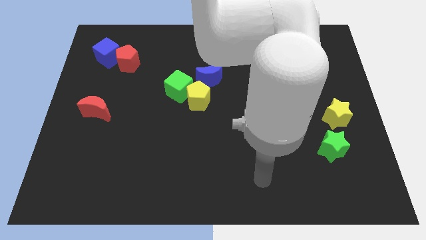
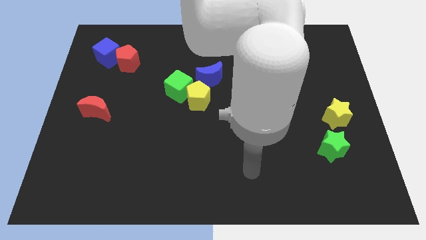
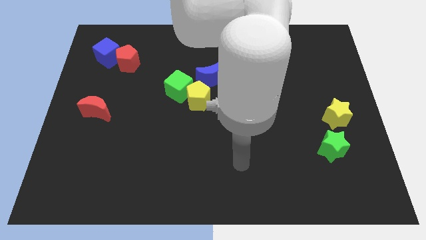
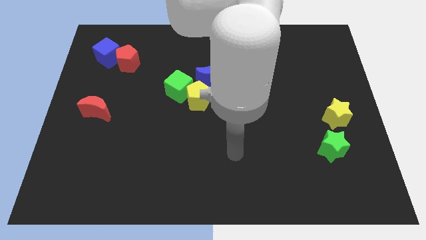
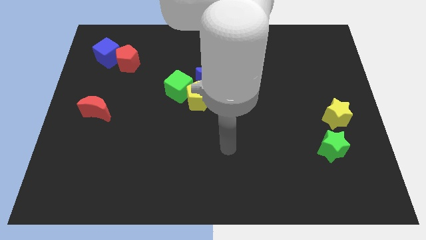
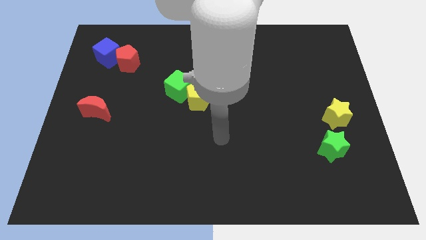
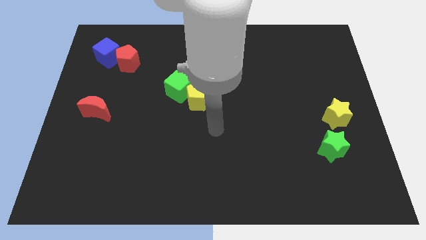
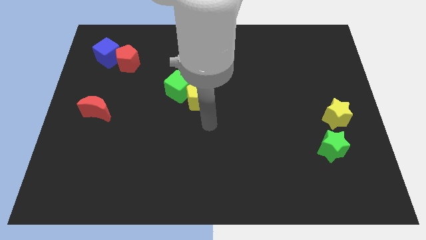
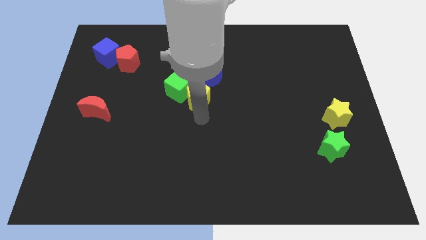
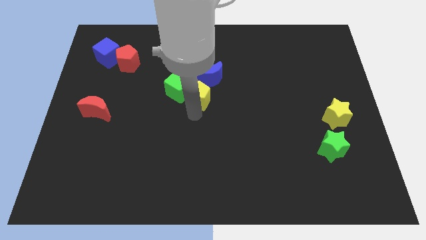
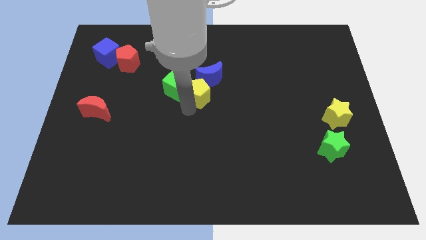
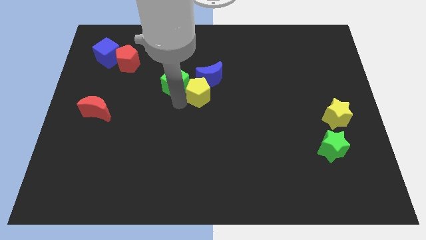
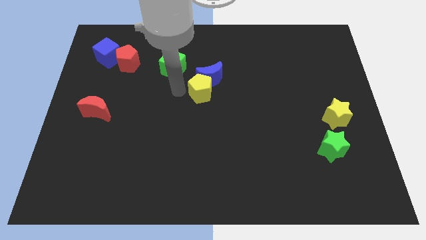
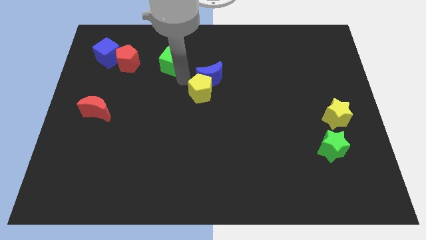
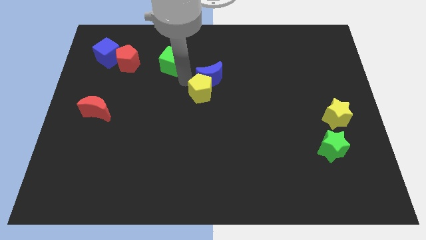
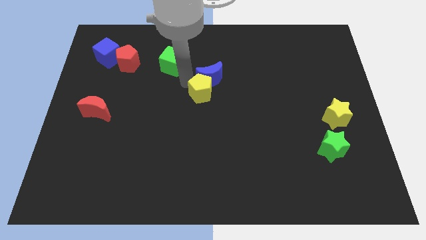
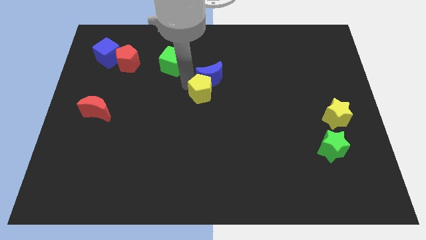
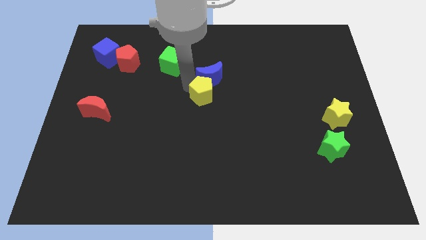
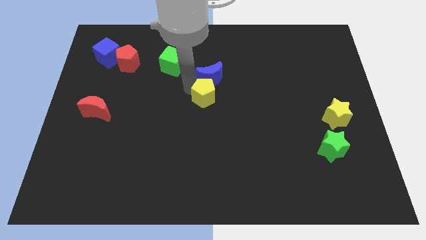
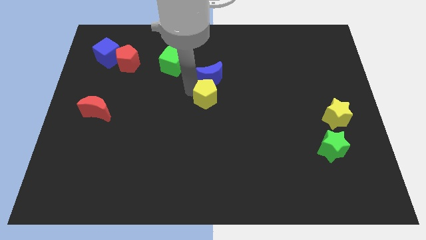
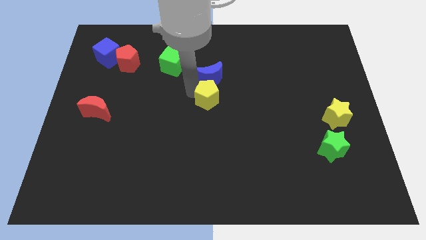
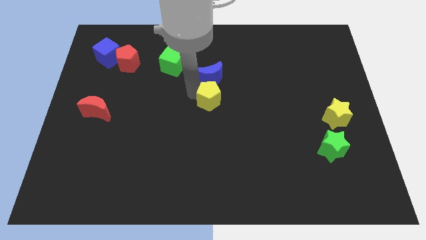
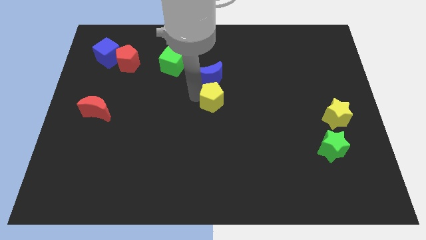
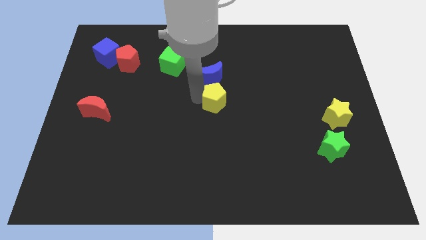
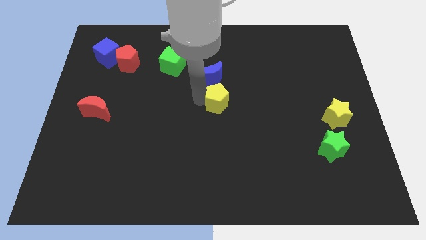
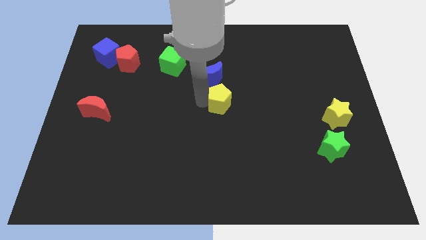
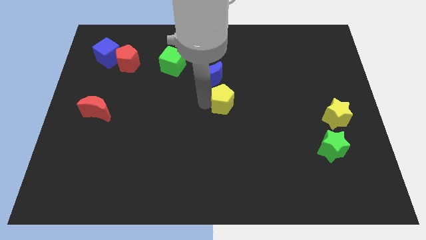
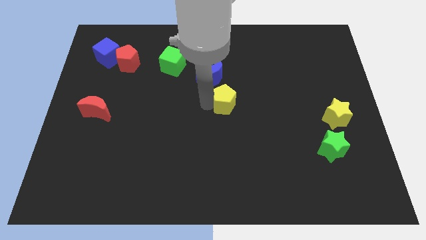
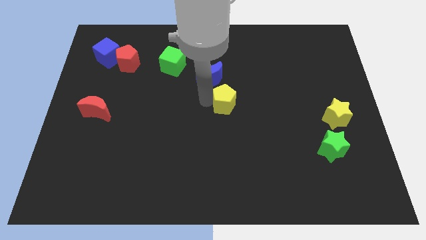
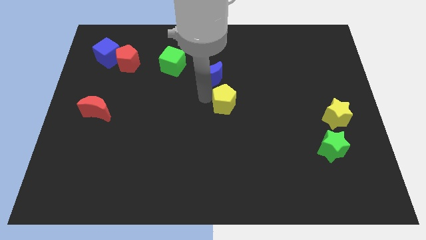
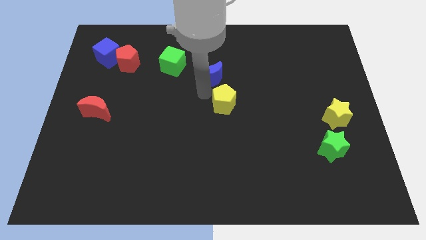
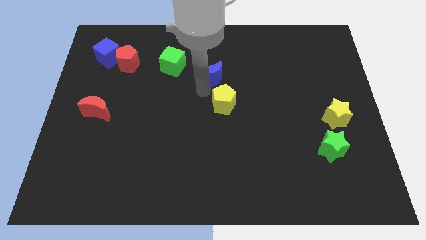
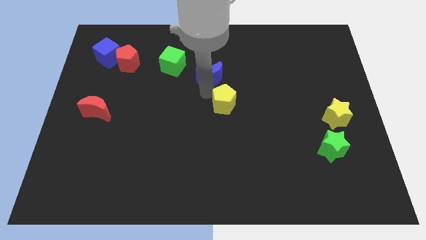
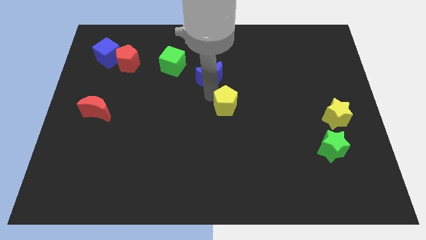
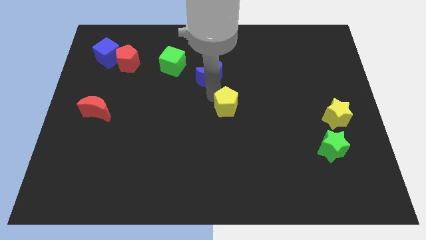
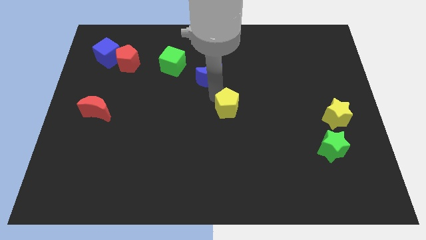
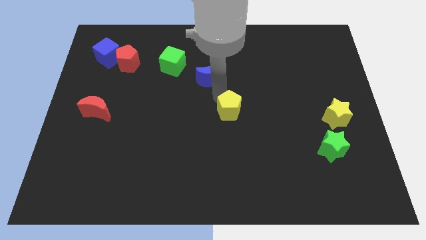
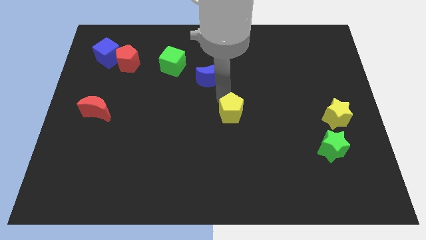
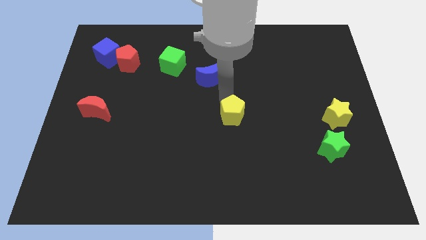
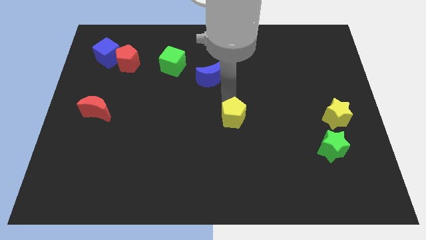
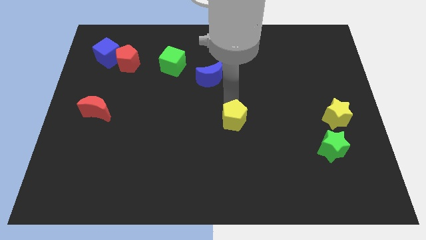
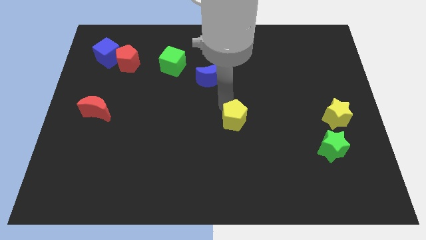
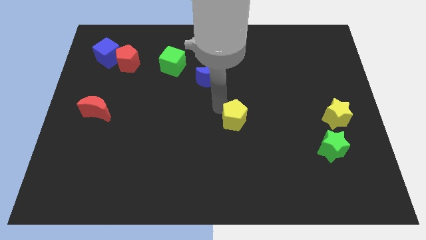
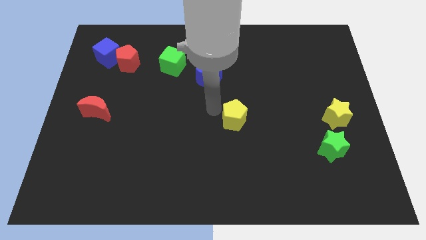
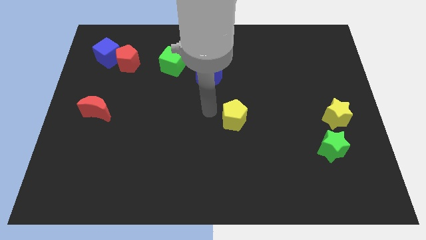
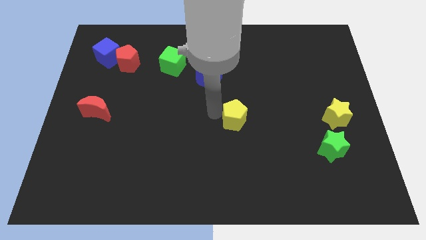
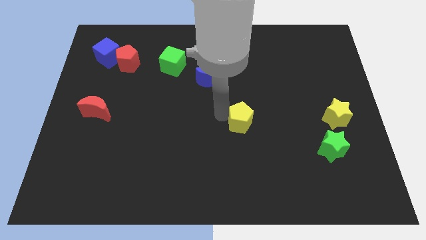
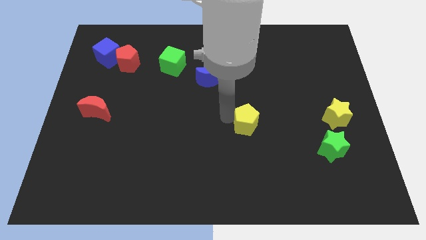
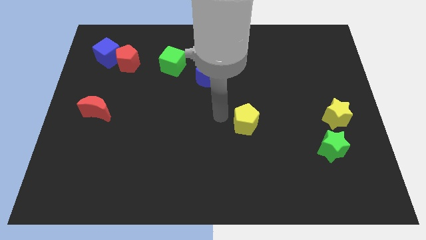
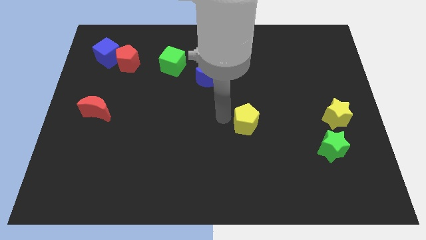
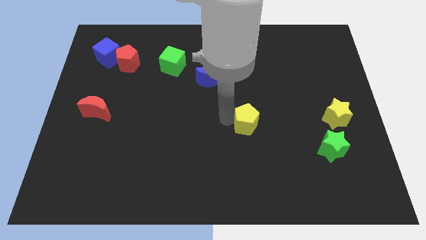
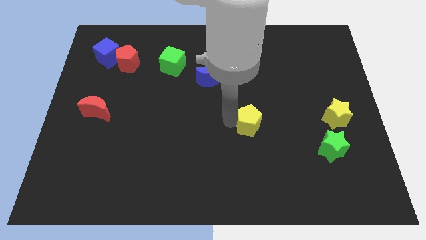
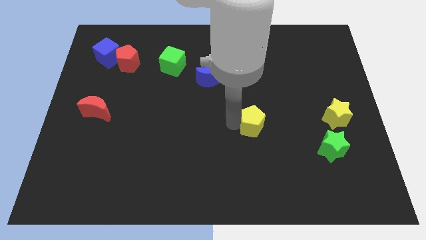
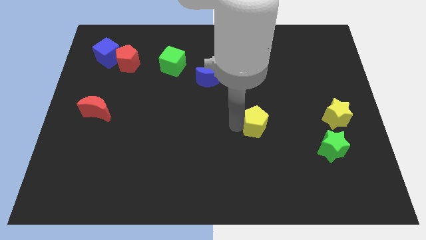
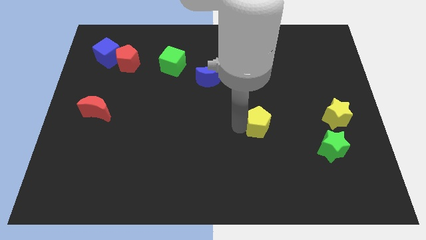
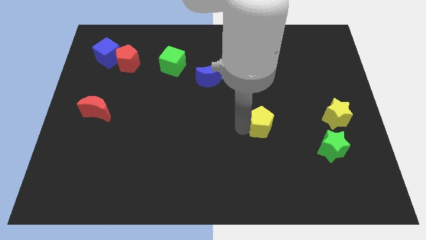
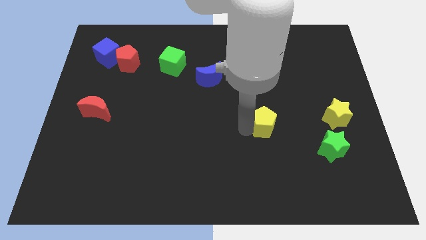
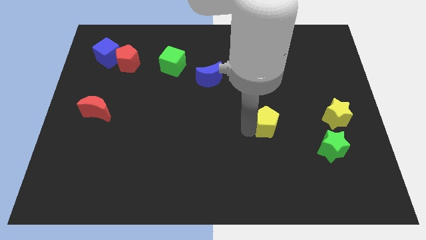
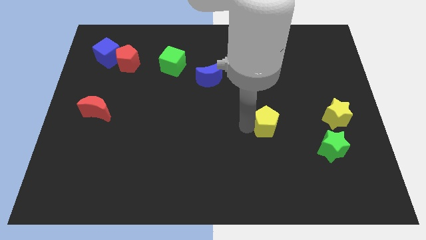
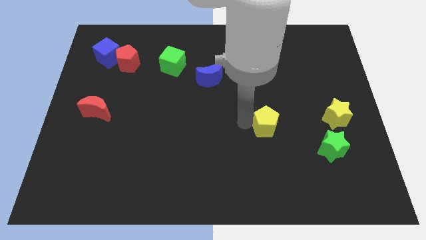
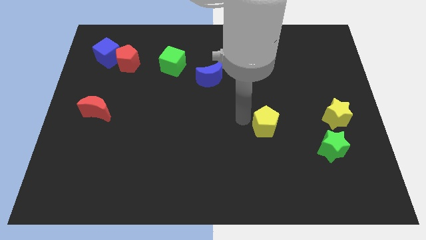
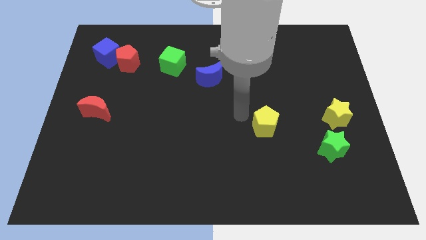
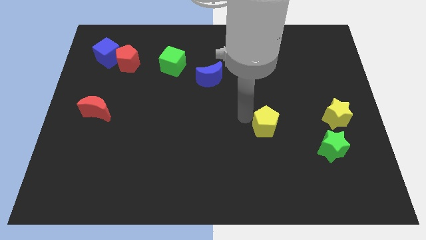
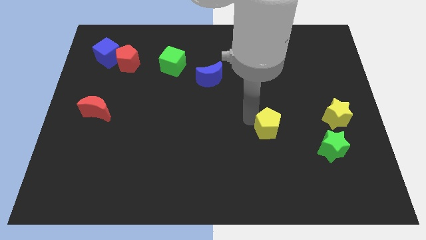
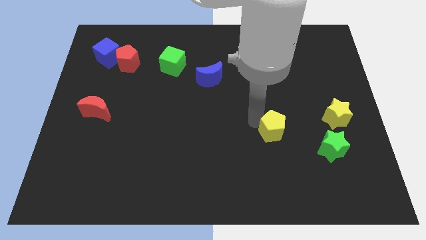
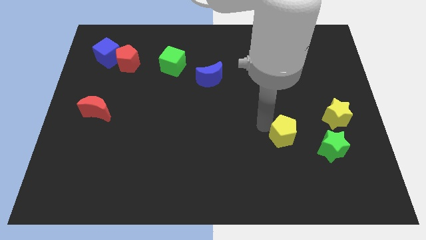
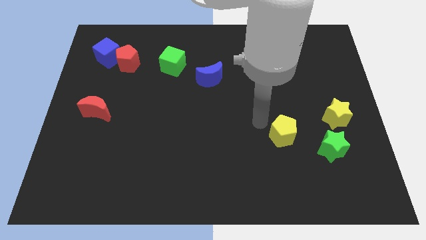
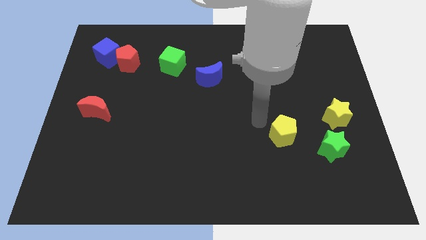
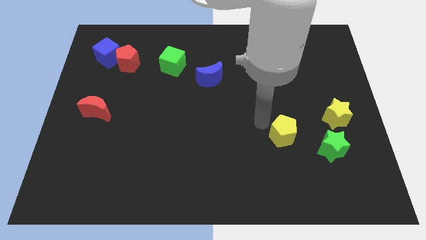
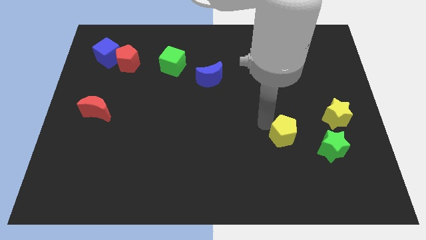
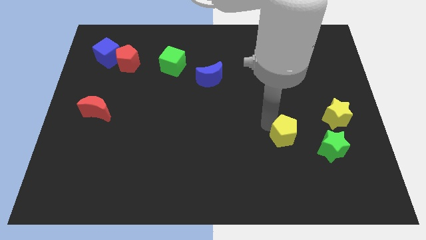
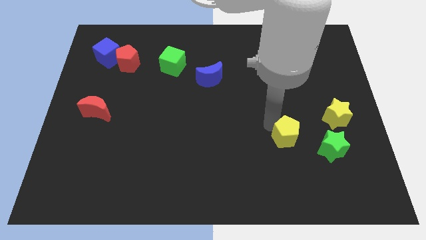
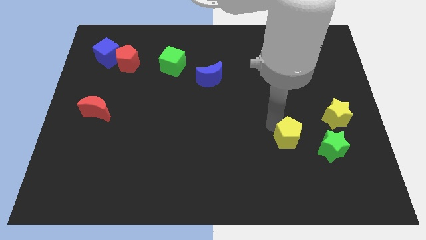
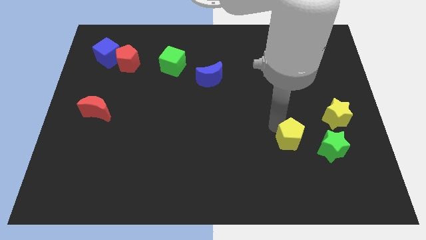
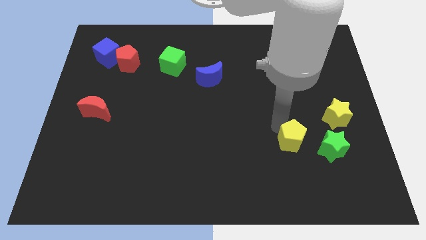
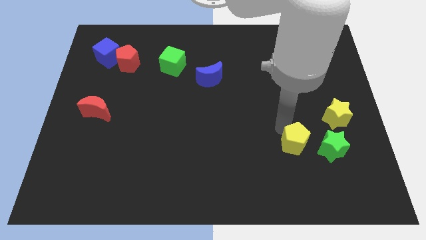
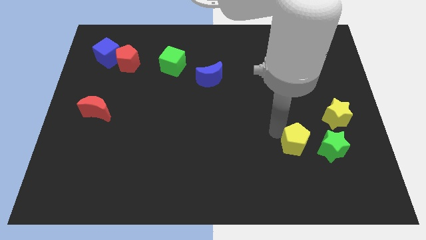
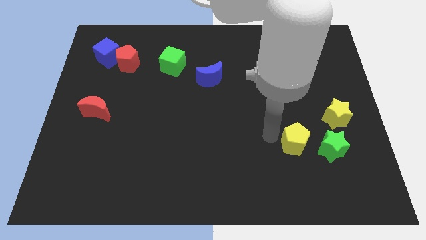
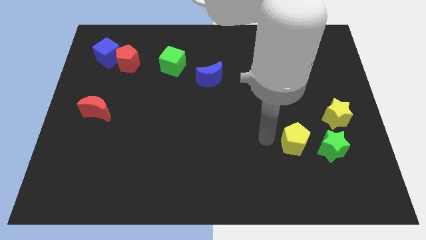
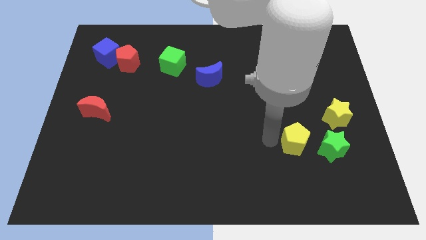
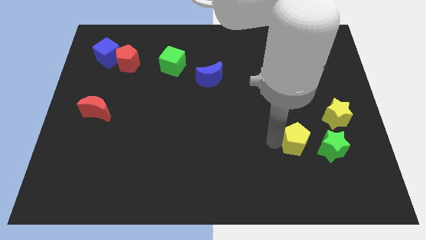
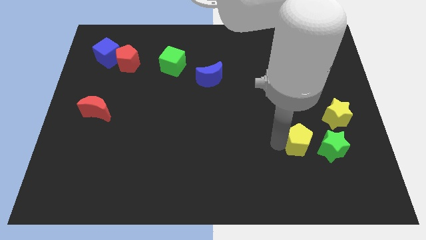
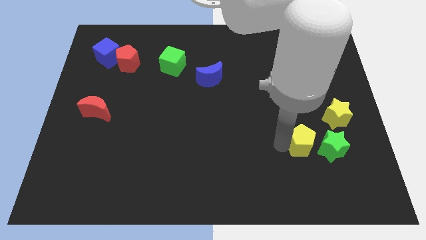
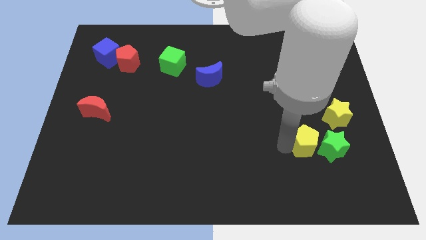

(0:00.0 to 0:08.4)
put the yellow pentagon close to the green star
